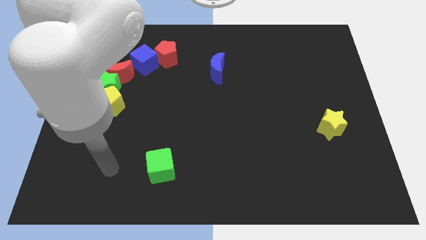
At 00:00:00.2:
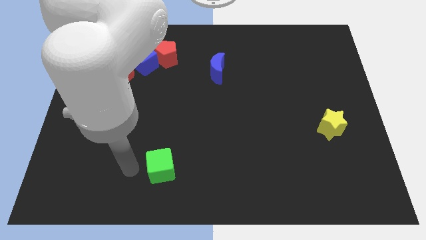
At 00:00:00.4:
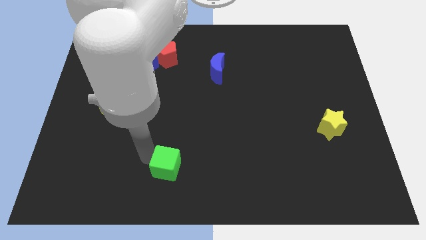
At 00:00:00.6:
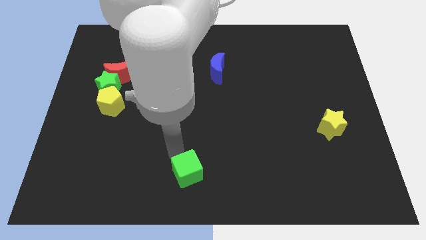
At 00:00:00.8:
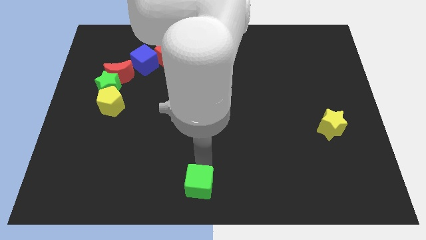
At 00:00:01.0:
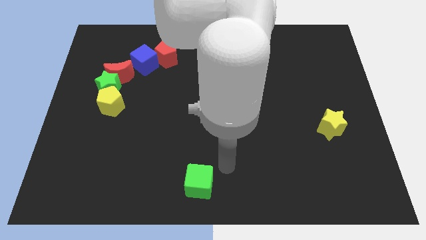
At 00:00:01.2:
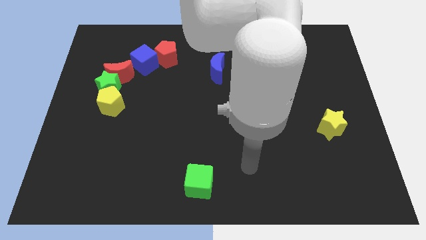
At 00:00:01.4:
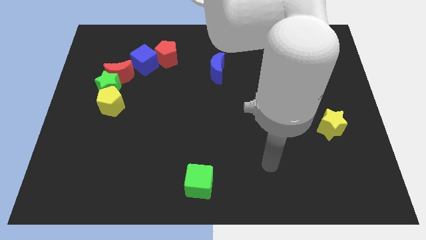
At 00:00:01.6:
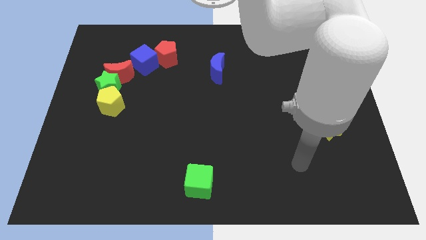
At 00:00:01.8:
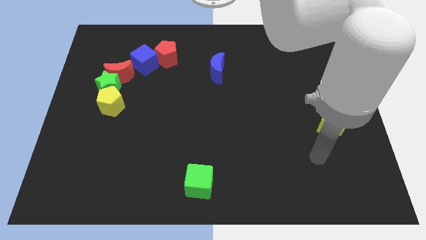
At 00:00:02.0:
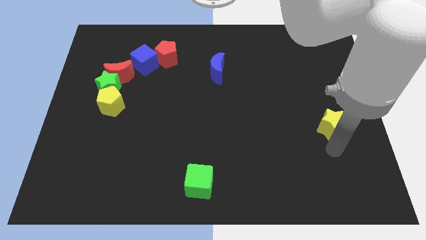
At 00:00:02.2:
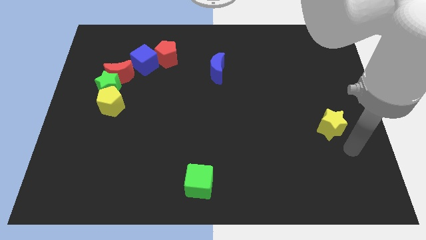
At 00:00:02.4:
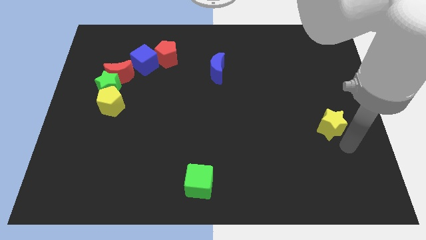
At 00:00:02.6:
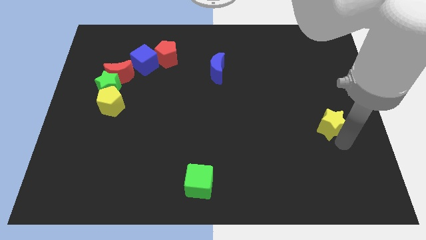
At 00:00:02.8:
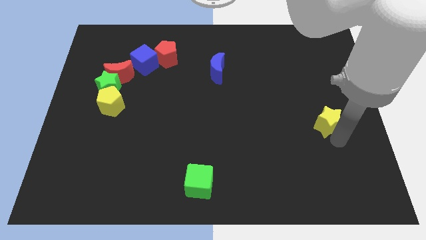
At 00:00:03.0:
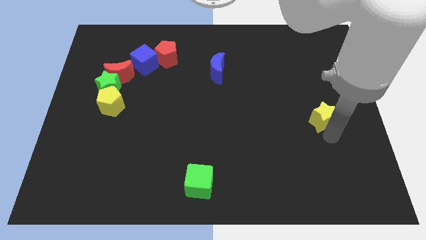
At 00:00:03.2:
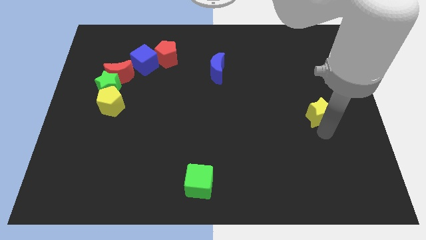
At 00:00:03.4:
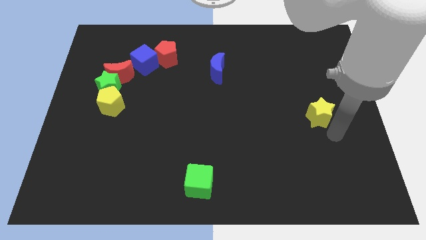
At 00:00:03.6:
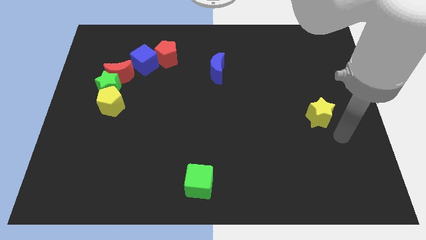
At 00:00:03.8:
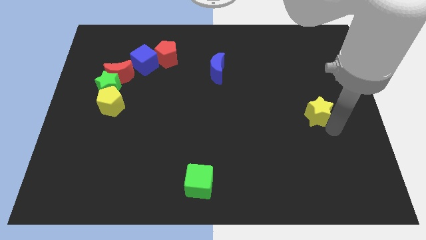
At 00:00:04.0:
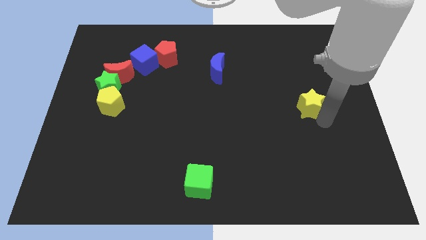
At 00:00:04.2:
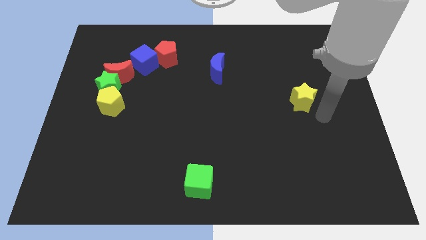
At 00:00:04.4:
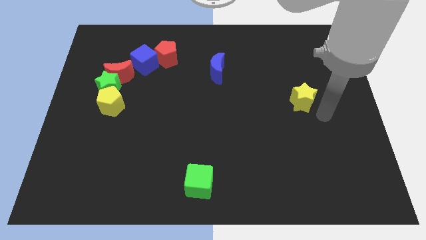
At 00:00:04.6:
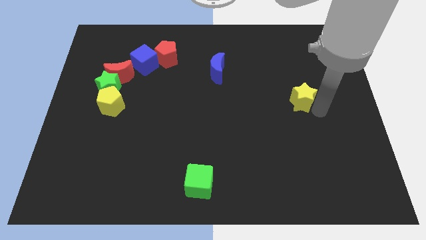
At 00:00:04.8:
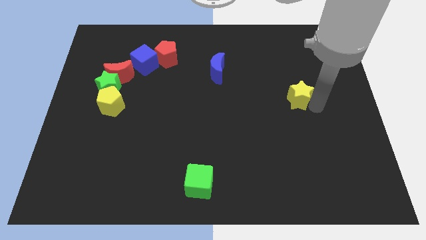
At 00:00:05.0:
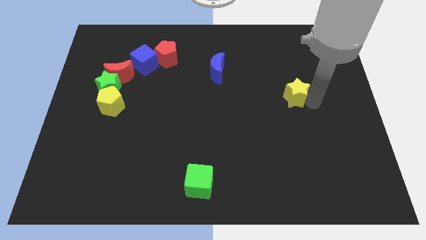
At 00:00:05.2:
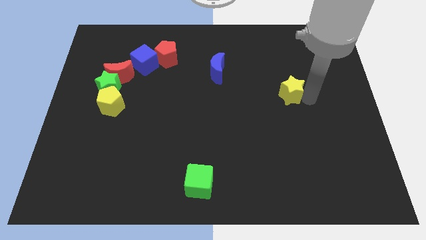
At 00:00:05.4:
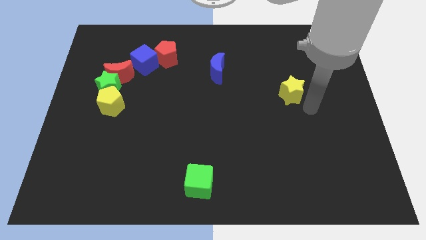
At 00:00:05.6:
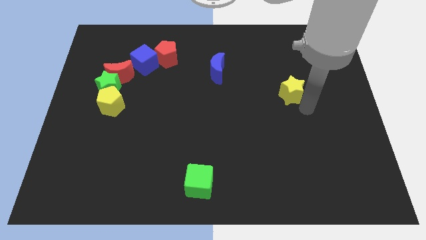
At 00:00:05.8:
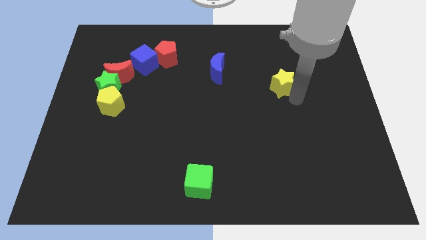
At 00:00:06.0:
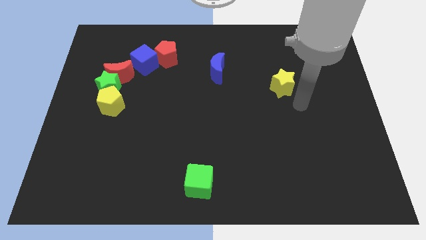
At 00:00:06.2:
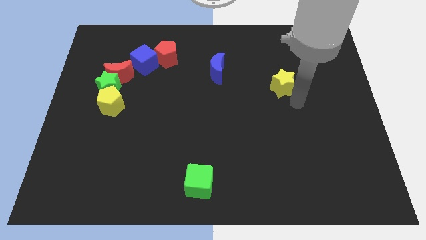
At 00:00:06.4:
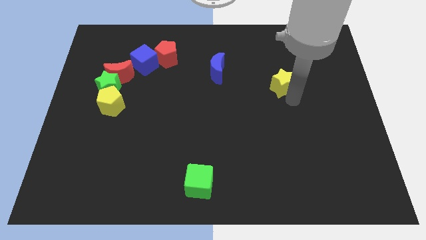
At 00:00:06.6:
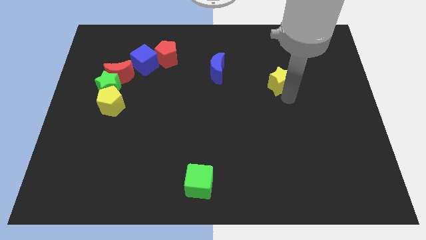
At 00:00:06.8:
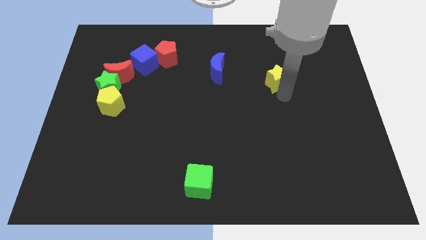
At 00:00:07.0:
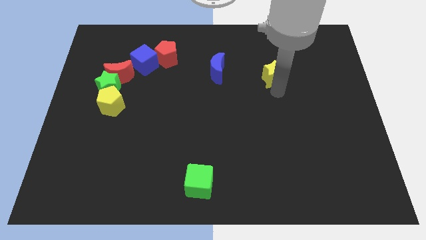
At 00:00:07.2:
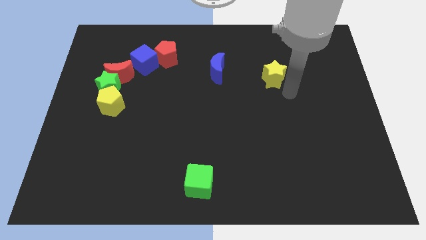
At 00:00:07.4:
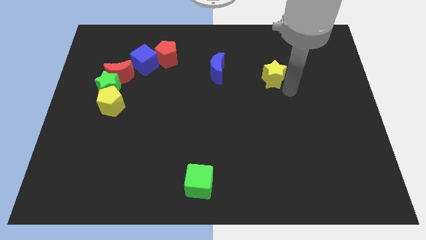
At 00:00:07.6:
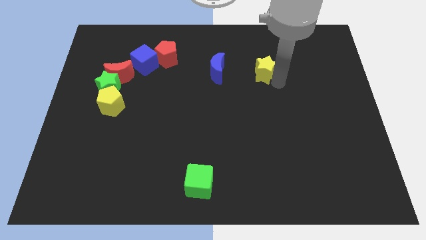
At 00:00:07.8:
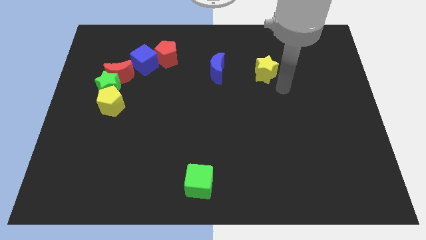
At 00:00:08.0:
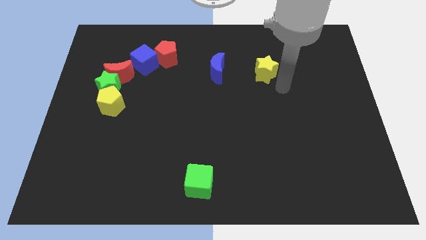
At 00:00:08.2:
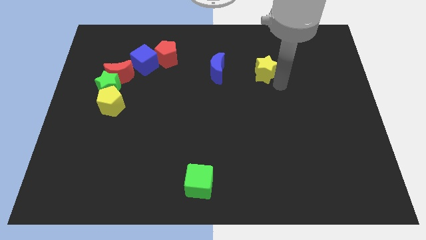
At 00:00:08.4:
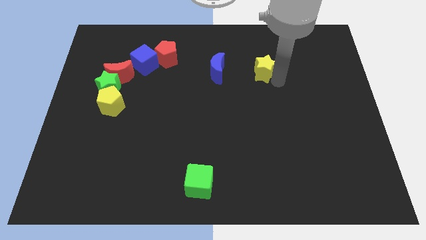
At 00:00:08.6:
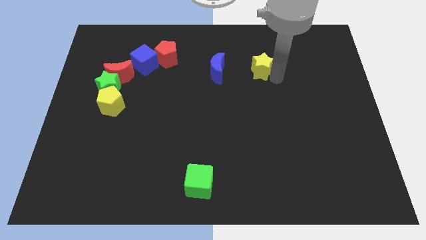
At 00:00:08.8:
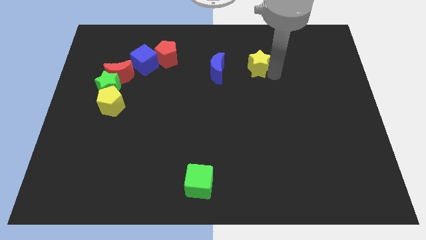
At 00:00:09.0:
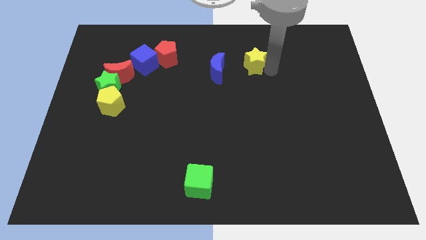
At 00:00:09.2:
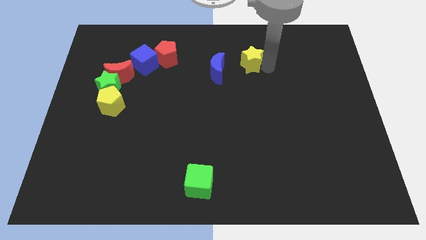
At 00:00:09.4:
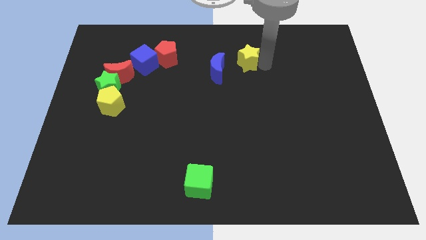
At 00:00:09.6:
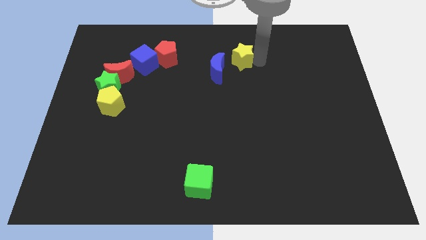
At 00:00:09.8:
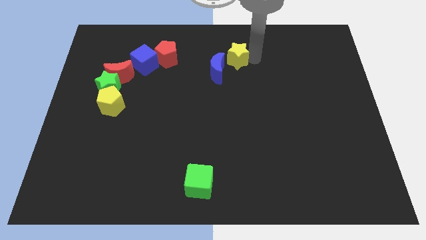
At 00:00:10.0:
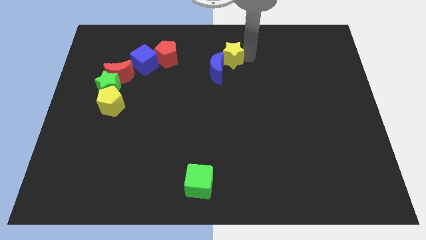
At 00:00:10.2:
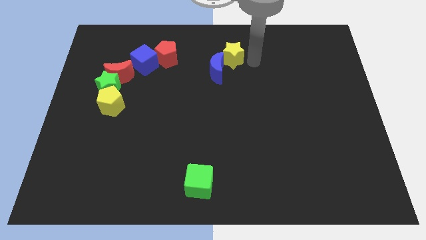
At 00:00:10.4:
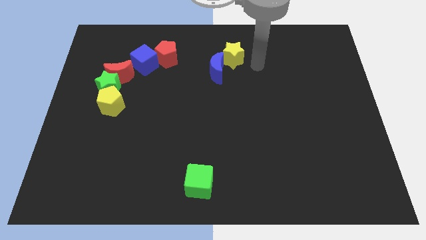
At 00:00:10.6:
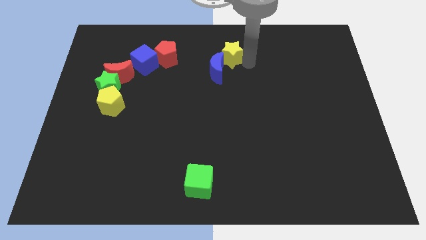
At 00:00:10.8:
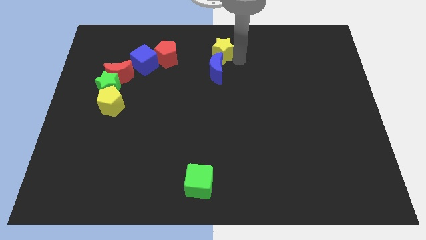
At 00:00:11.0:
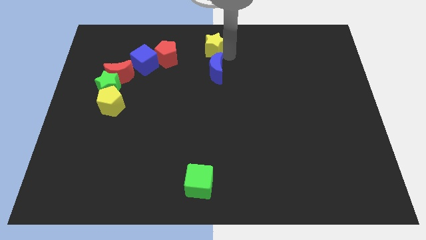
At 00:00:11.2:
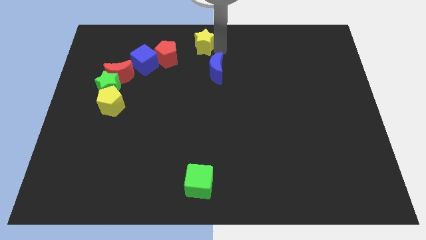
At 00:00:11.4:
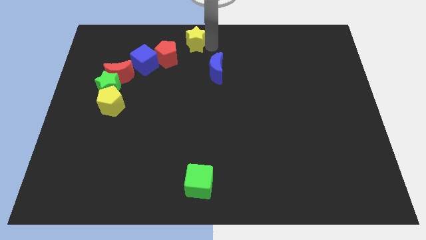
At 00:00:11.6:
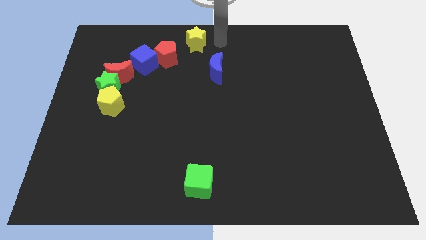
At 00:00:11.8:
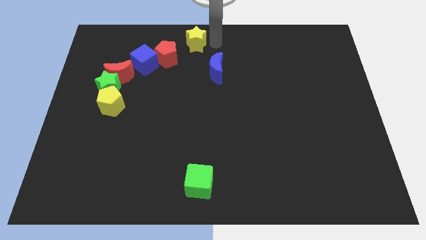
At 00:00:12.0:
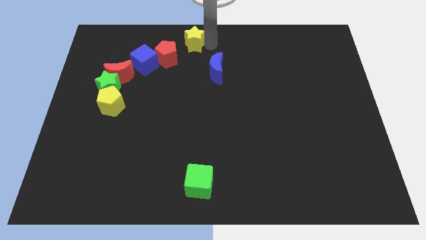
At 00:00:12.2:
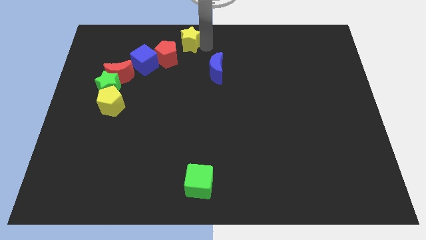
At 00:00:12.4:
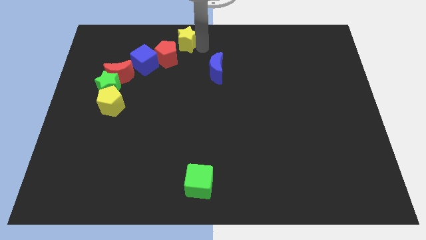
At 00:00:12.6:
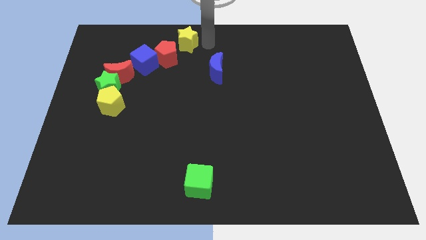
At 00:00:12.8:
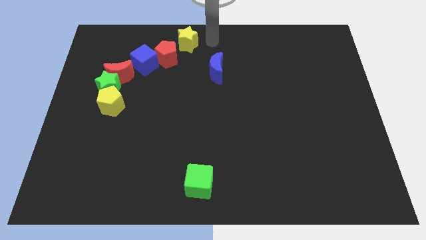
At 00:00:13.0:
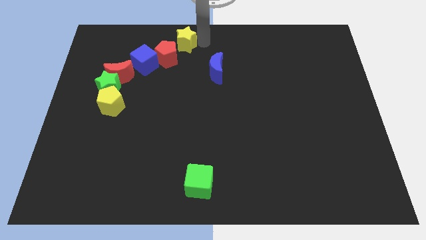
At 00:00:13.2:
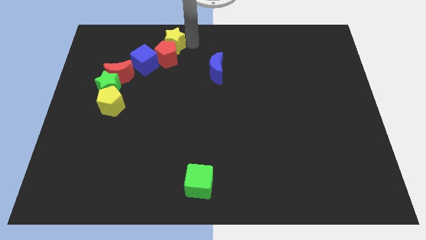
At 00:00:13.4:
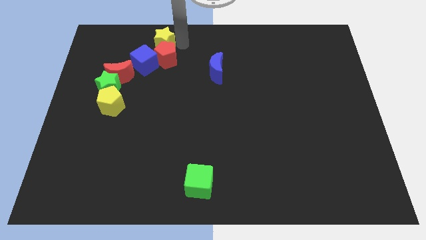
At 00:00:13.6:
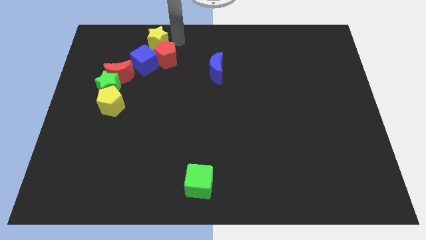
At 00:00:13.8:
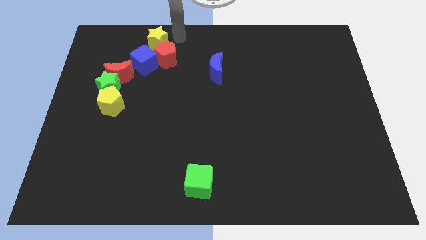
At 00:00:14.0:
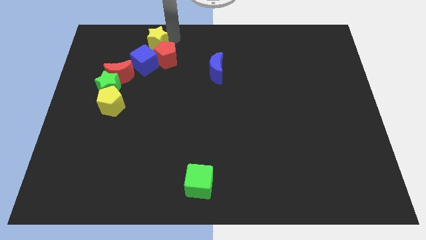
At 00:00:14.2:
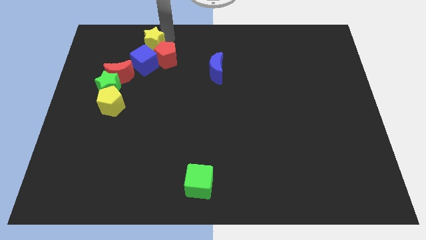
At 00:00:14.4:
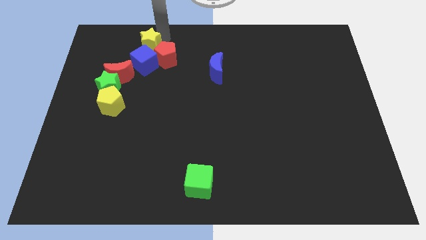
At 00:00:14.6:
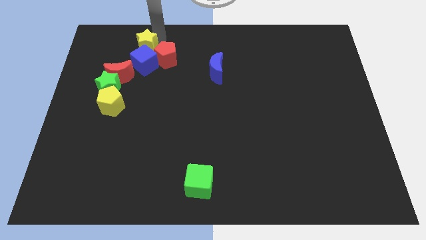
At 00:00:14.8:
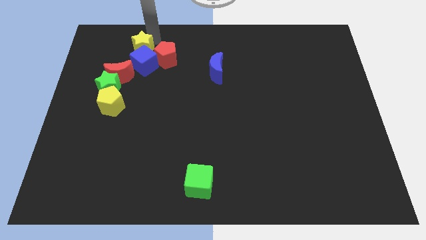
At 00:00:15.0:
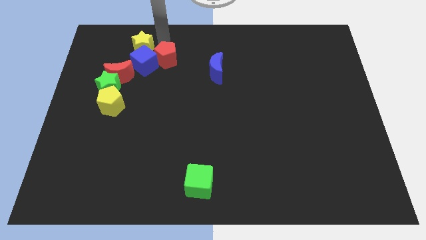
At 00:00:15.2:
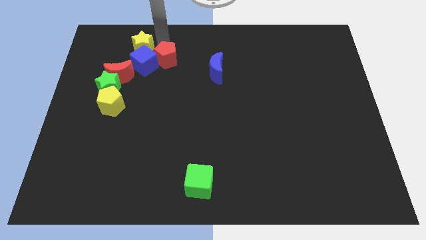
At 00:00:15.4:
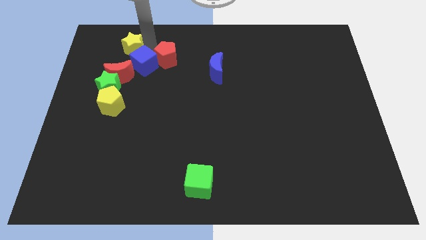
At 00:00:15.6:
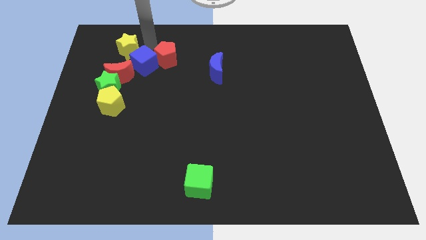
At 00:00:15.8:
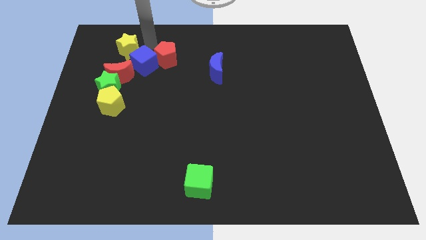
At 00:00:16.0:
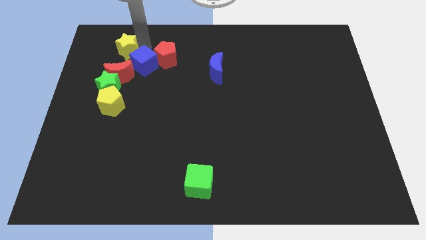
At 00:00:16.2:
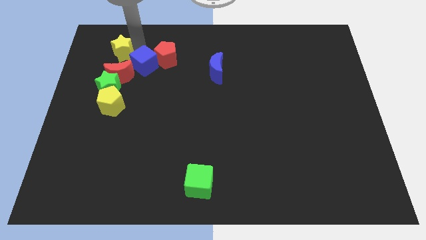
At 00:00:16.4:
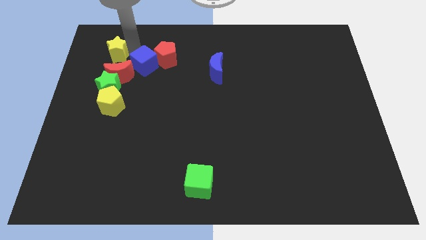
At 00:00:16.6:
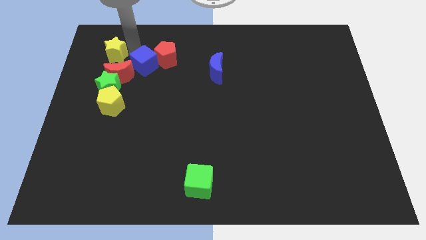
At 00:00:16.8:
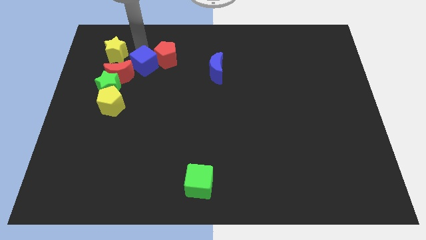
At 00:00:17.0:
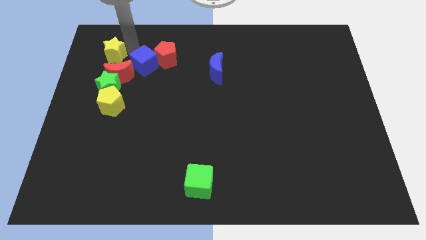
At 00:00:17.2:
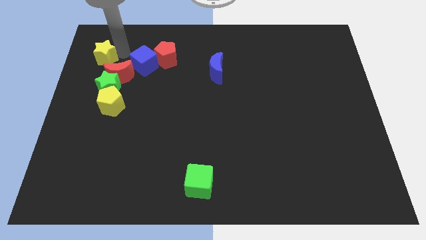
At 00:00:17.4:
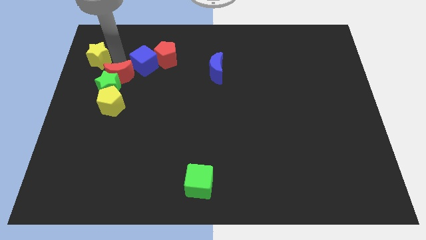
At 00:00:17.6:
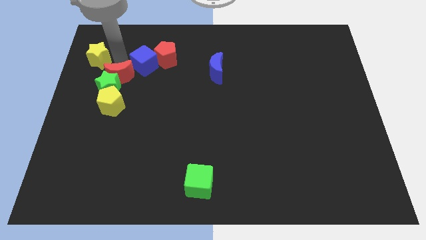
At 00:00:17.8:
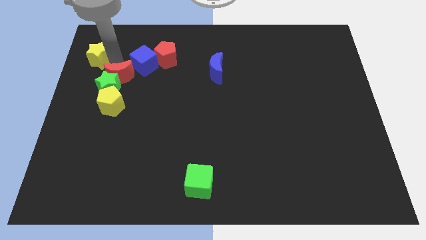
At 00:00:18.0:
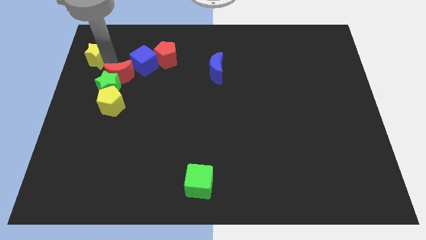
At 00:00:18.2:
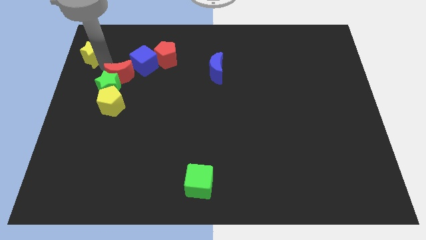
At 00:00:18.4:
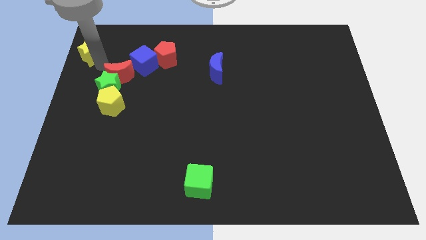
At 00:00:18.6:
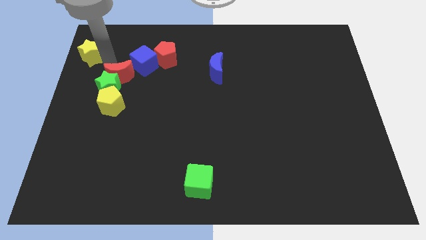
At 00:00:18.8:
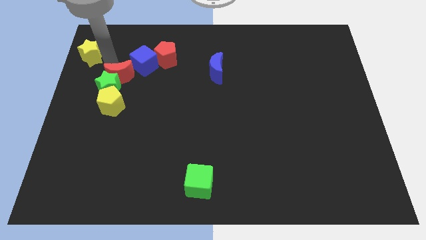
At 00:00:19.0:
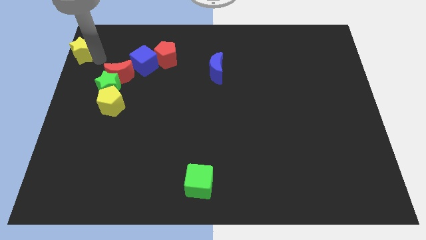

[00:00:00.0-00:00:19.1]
slide the yellow star to the top left
